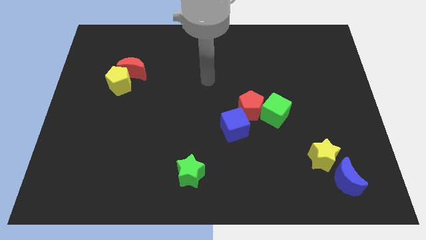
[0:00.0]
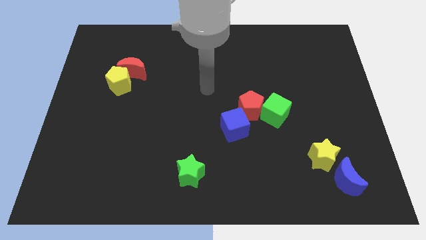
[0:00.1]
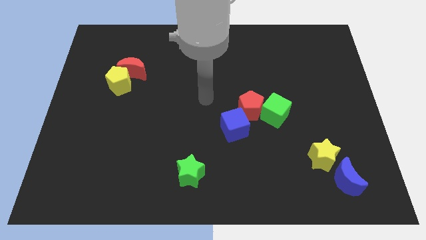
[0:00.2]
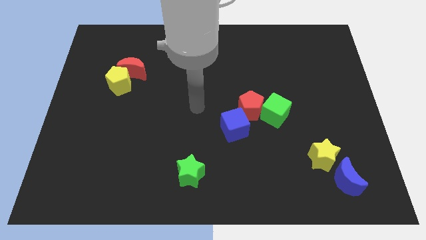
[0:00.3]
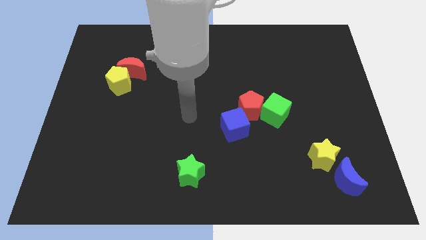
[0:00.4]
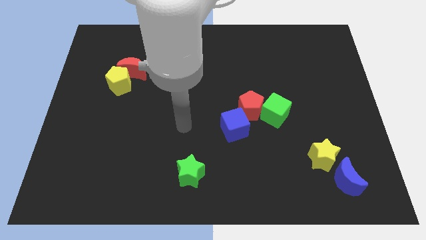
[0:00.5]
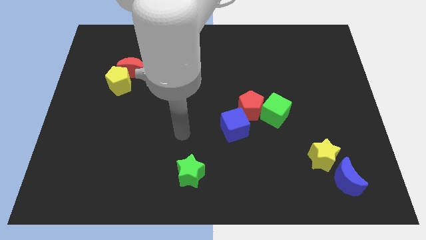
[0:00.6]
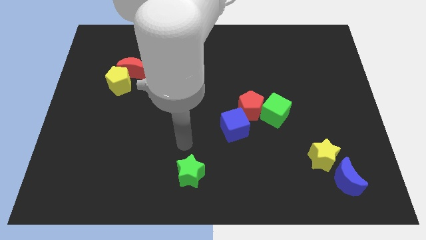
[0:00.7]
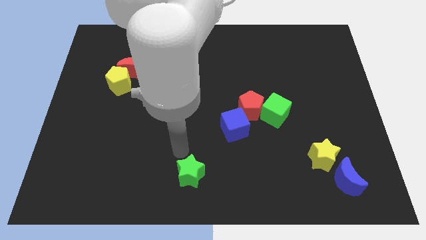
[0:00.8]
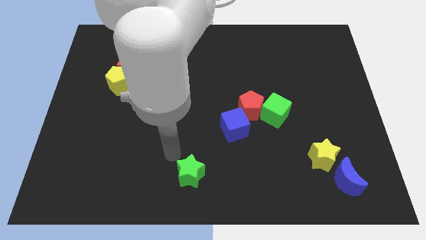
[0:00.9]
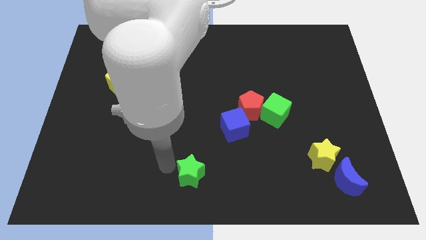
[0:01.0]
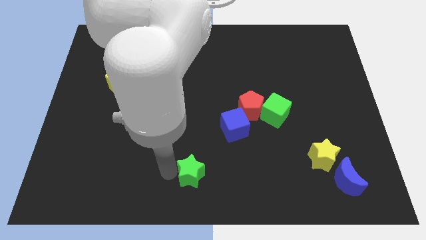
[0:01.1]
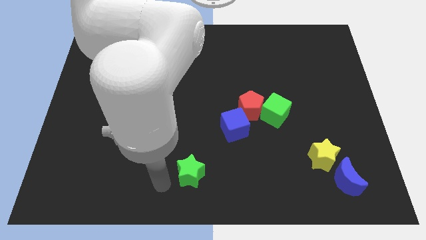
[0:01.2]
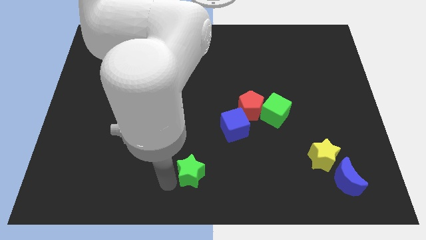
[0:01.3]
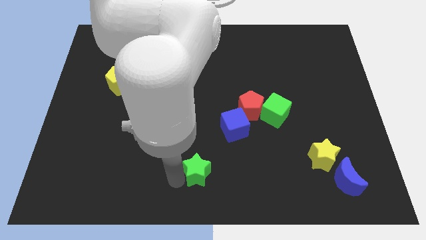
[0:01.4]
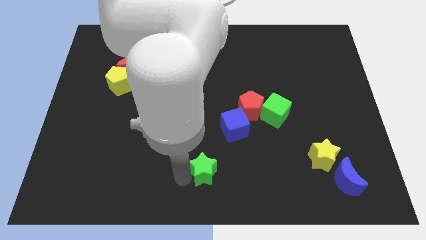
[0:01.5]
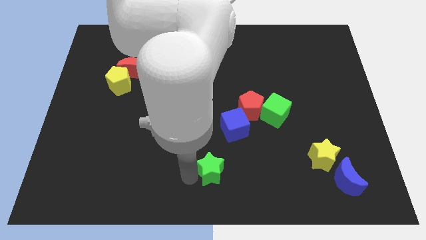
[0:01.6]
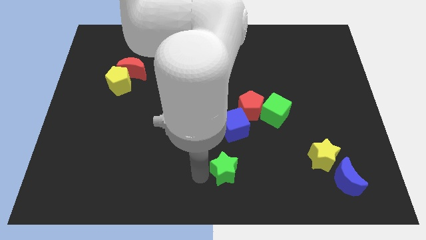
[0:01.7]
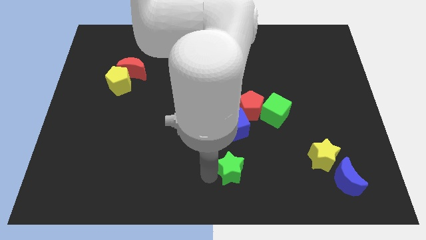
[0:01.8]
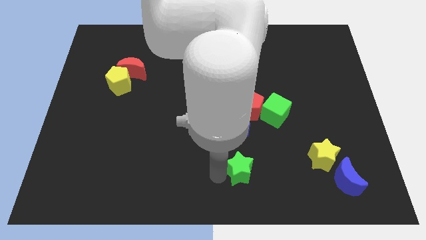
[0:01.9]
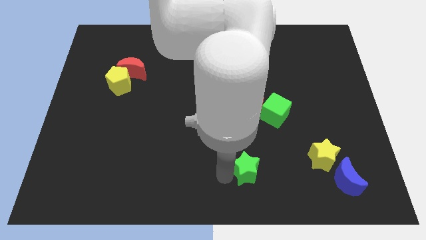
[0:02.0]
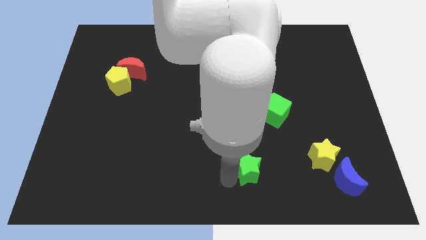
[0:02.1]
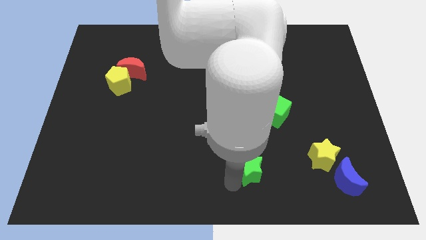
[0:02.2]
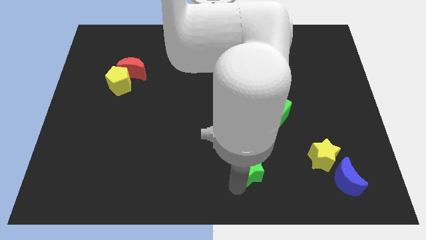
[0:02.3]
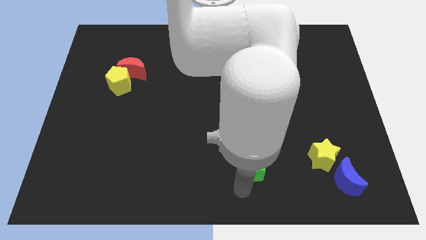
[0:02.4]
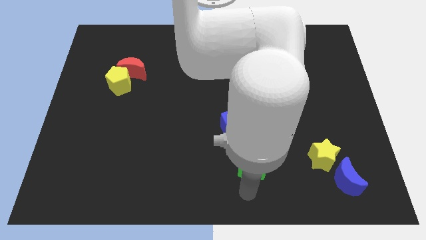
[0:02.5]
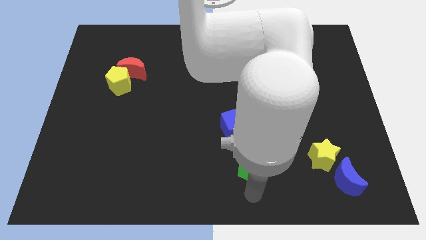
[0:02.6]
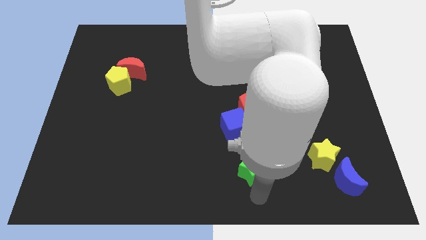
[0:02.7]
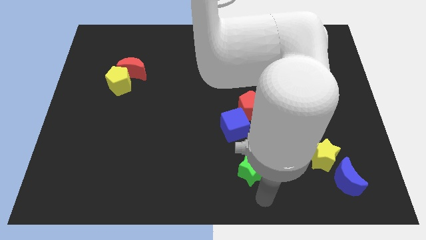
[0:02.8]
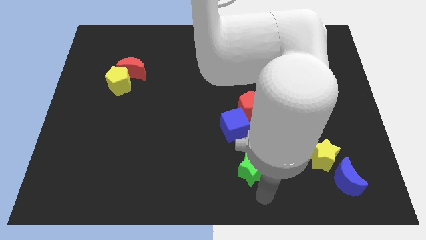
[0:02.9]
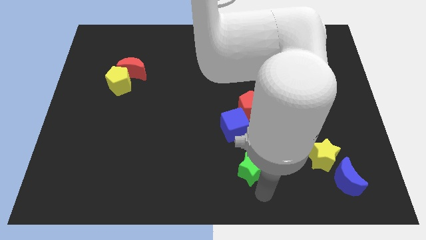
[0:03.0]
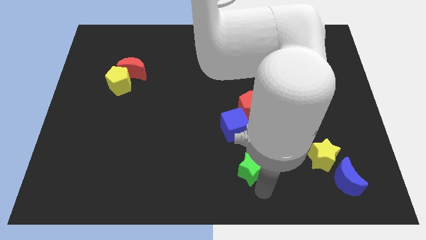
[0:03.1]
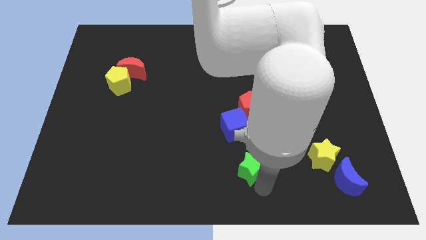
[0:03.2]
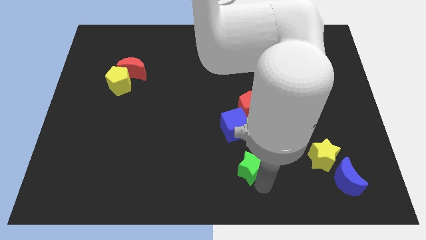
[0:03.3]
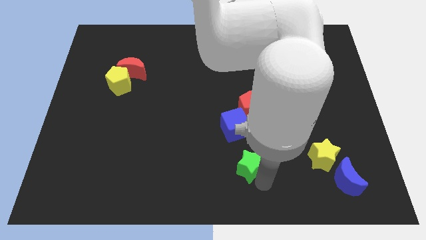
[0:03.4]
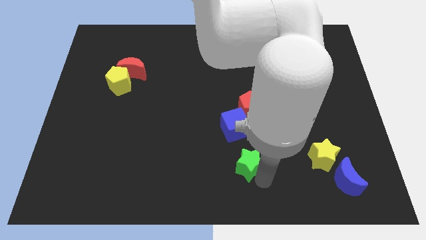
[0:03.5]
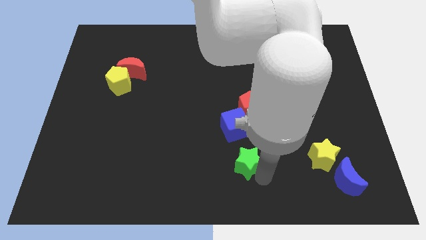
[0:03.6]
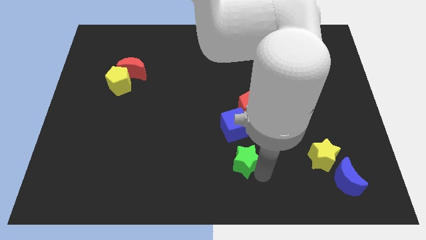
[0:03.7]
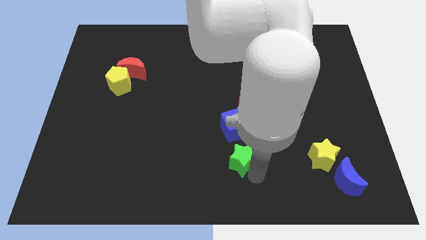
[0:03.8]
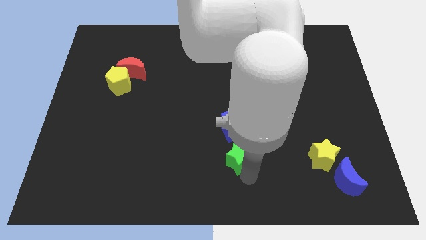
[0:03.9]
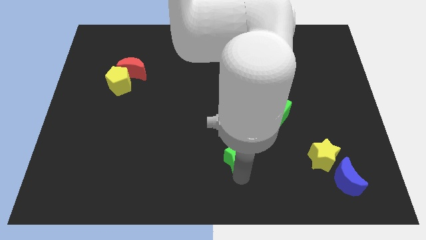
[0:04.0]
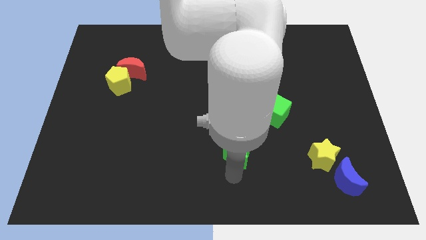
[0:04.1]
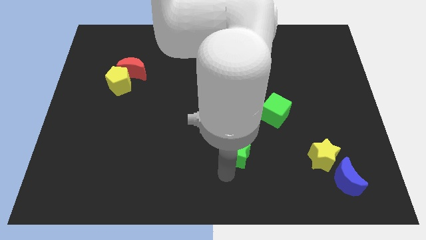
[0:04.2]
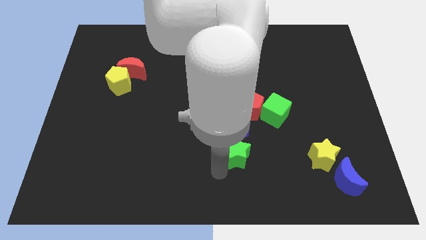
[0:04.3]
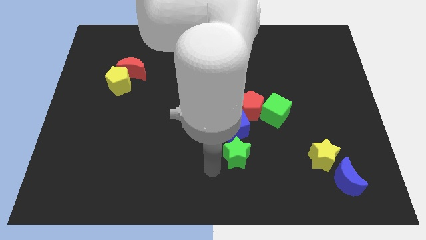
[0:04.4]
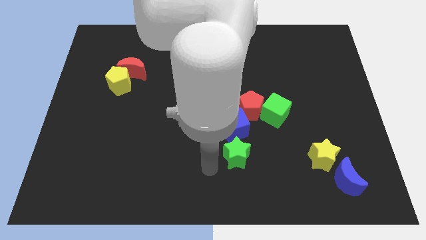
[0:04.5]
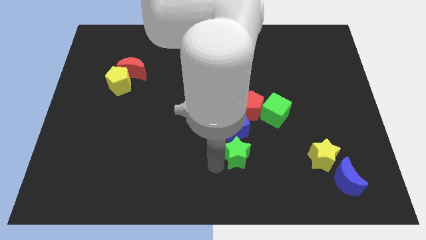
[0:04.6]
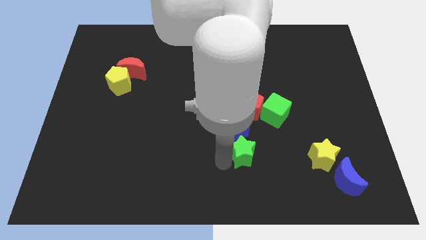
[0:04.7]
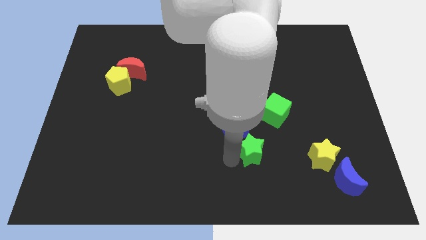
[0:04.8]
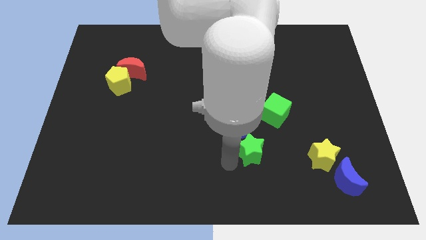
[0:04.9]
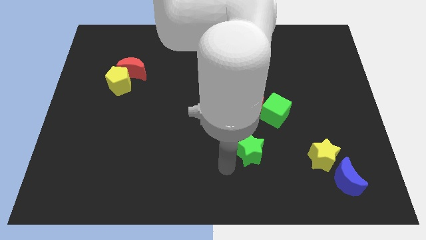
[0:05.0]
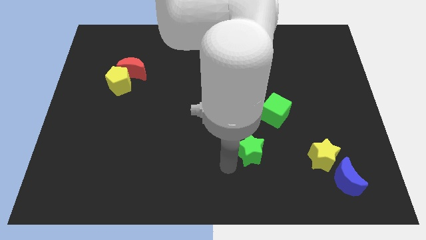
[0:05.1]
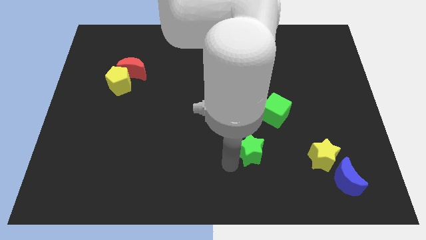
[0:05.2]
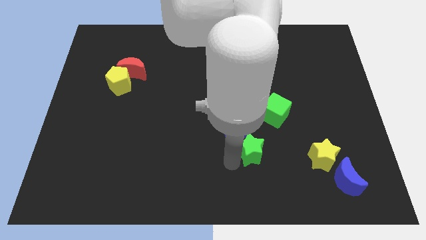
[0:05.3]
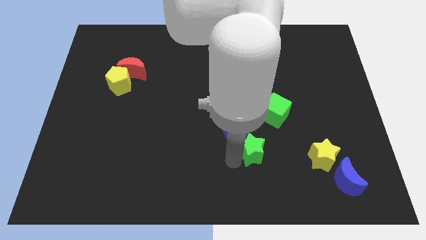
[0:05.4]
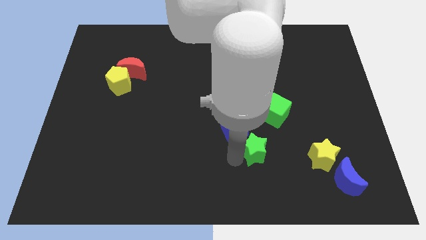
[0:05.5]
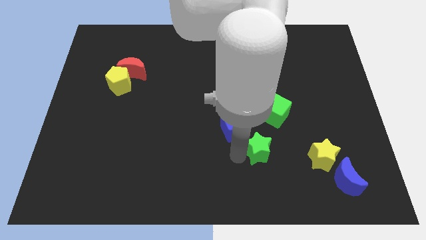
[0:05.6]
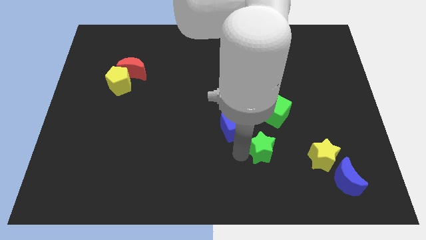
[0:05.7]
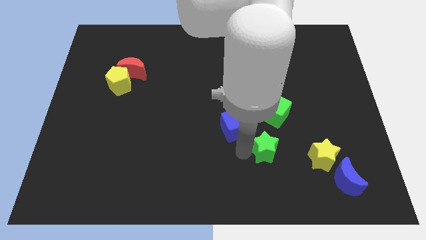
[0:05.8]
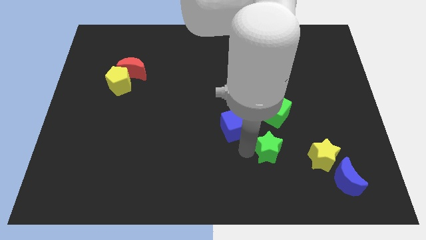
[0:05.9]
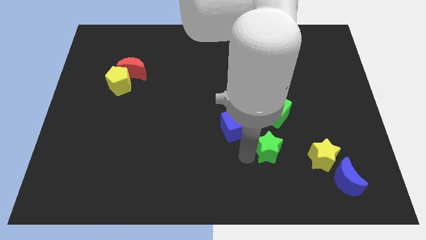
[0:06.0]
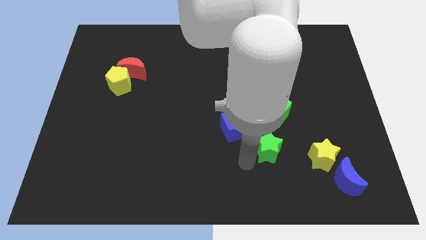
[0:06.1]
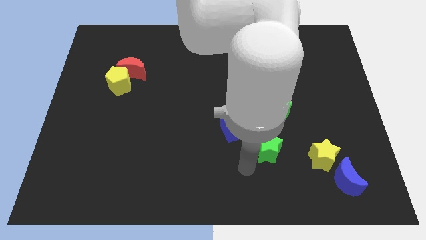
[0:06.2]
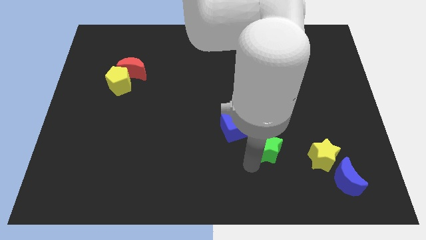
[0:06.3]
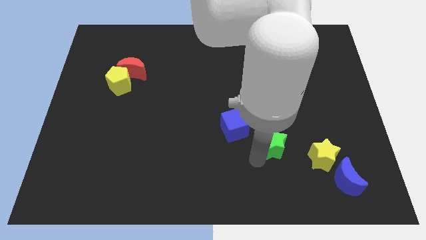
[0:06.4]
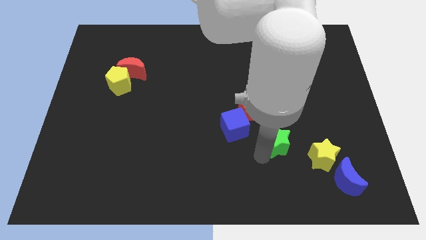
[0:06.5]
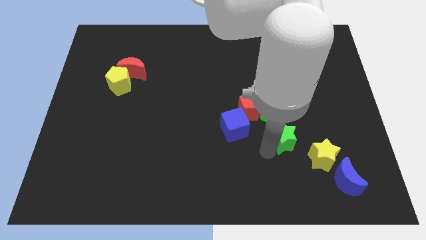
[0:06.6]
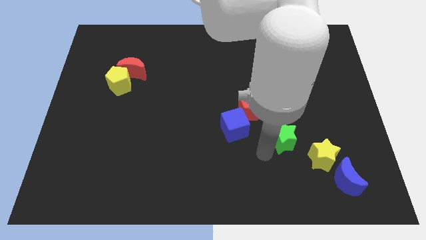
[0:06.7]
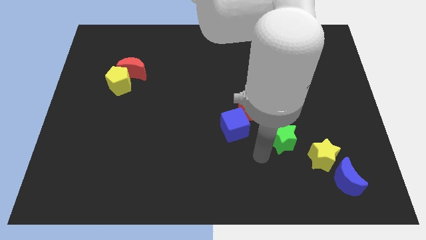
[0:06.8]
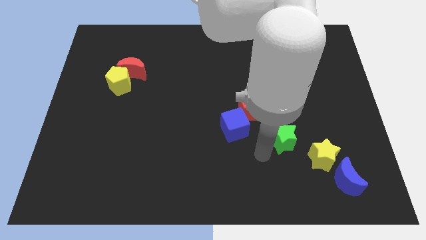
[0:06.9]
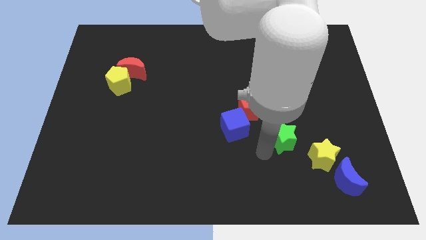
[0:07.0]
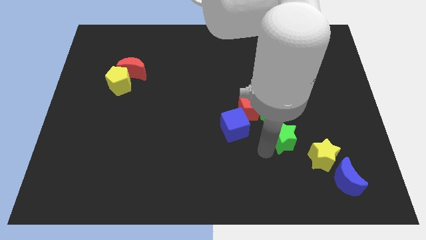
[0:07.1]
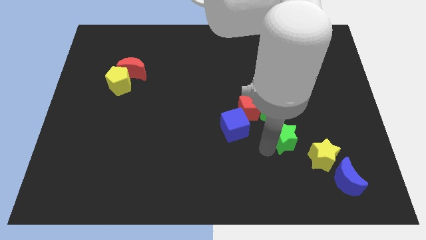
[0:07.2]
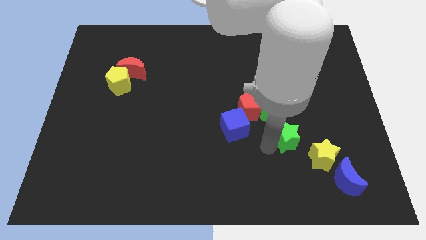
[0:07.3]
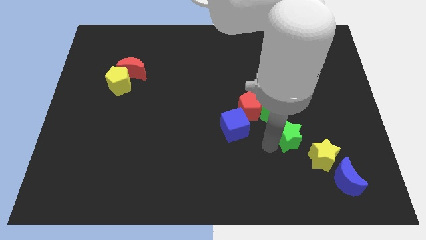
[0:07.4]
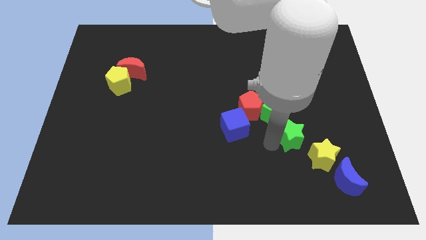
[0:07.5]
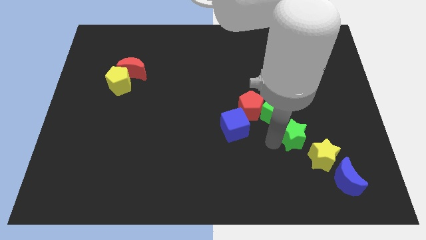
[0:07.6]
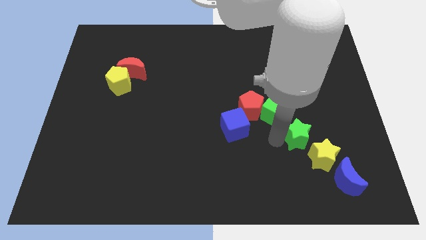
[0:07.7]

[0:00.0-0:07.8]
put the green star to the top of the yellow star
